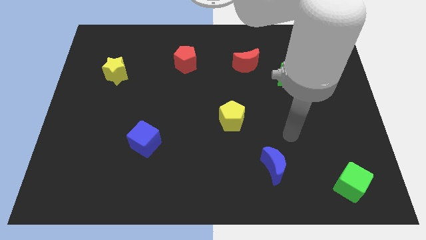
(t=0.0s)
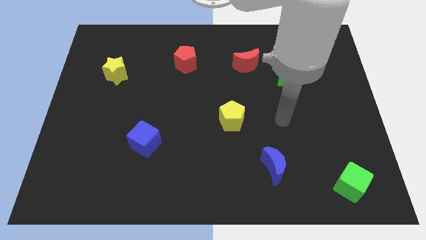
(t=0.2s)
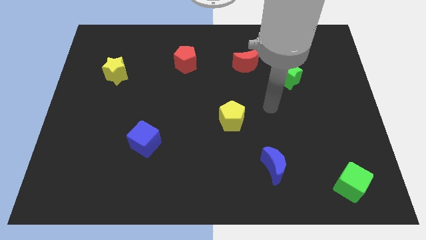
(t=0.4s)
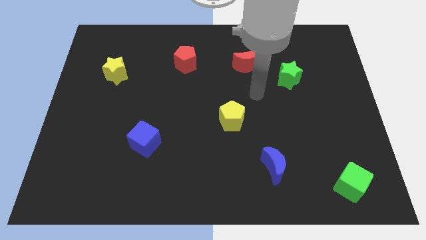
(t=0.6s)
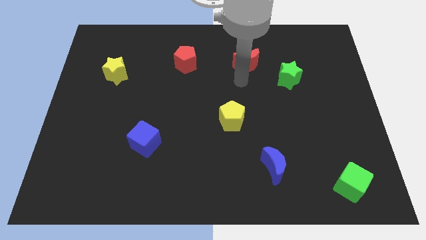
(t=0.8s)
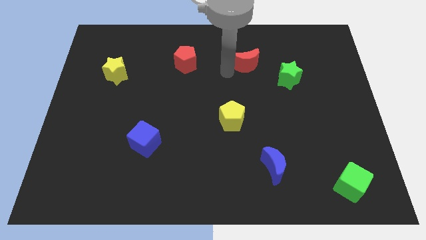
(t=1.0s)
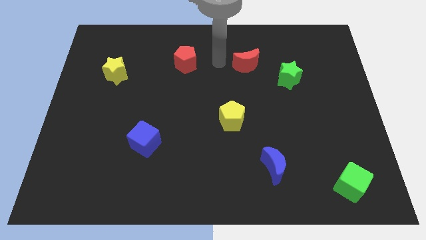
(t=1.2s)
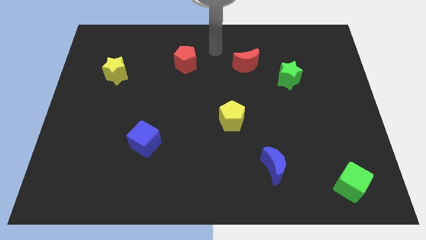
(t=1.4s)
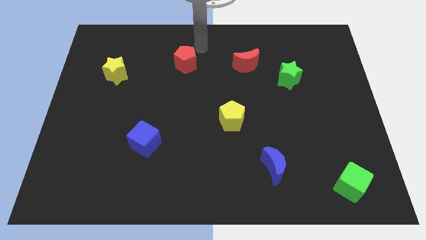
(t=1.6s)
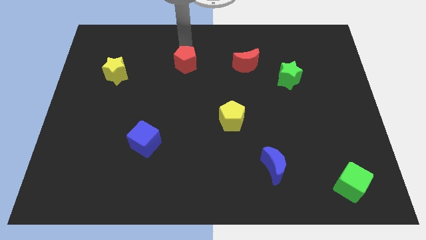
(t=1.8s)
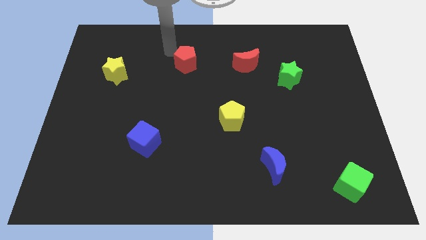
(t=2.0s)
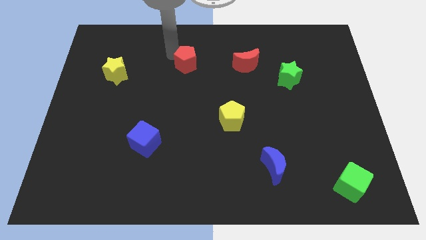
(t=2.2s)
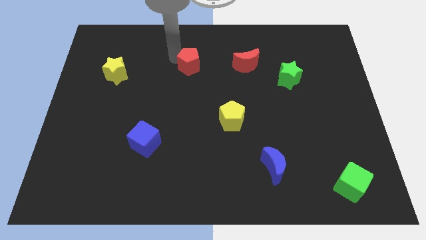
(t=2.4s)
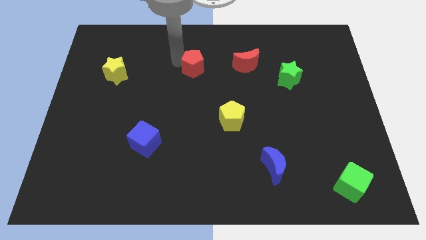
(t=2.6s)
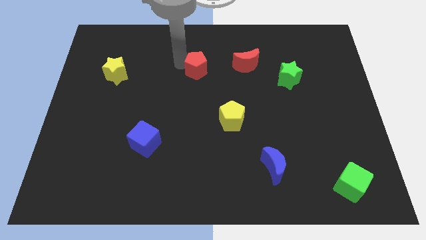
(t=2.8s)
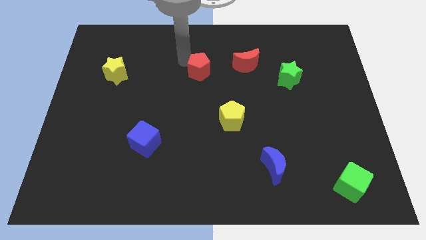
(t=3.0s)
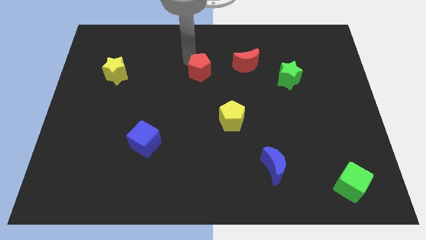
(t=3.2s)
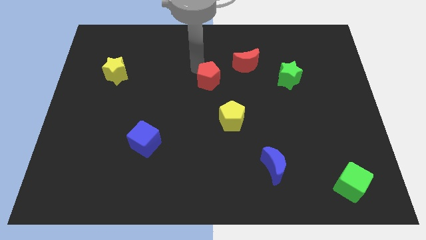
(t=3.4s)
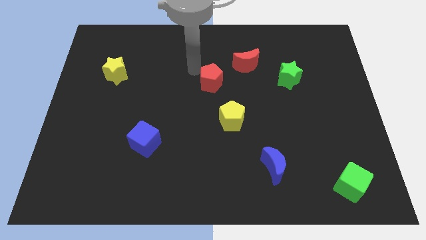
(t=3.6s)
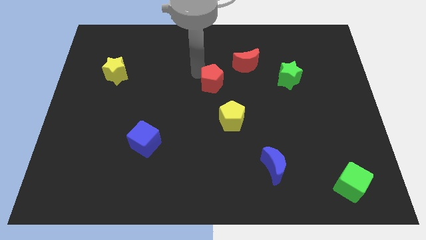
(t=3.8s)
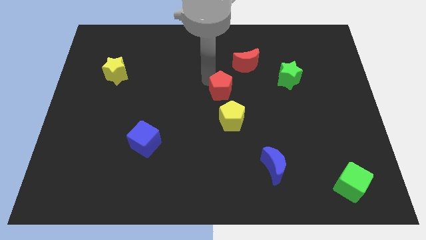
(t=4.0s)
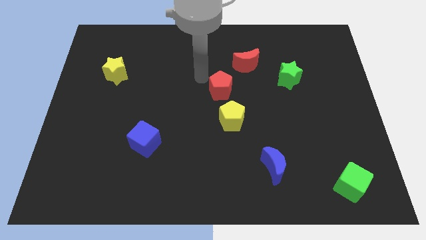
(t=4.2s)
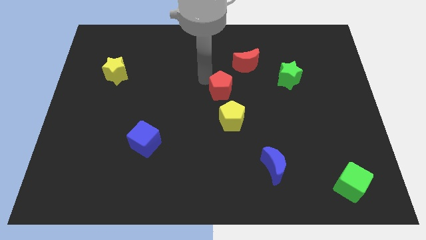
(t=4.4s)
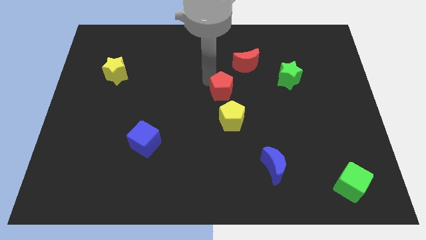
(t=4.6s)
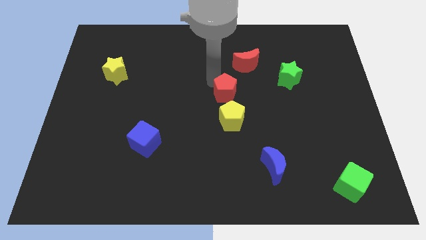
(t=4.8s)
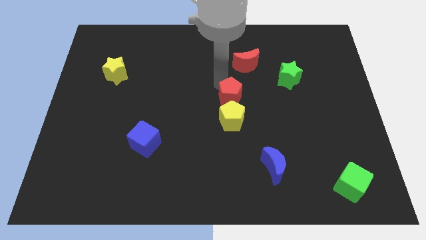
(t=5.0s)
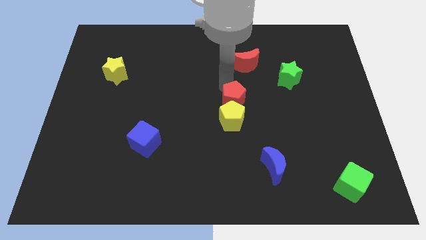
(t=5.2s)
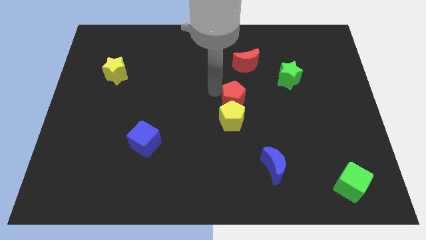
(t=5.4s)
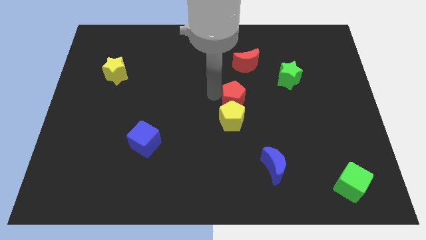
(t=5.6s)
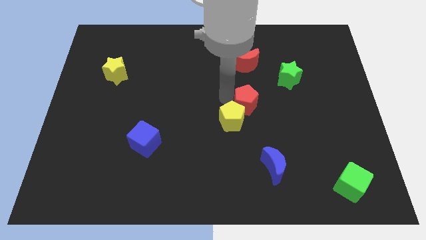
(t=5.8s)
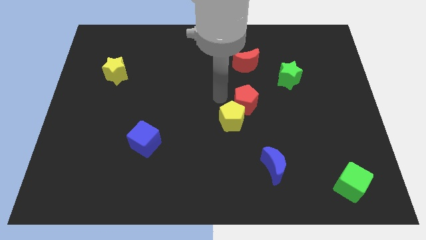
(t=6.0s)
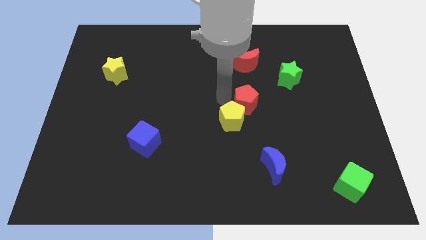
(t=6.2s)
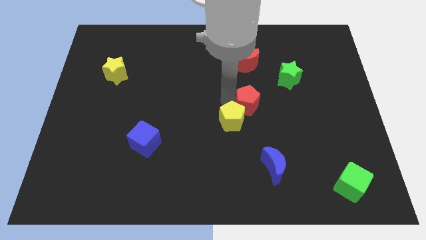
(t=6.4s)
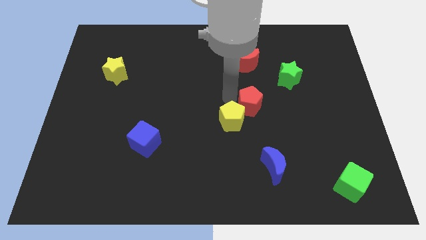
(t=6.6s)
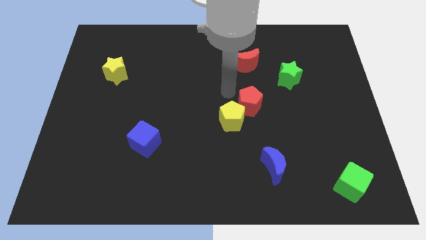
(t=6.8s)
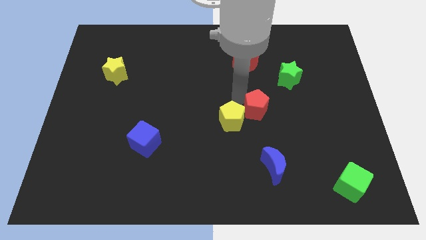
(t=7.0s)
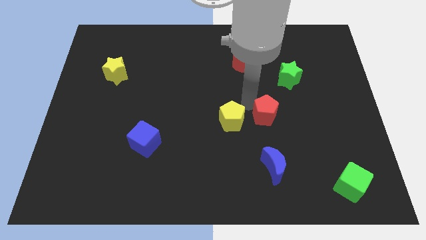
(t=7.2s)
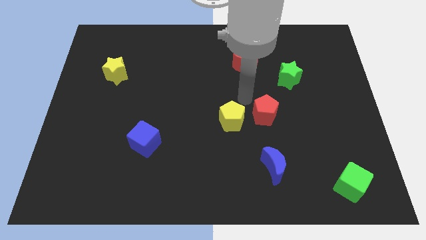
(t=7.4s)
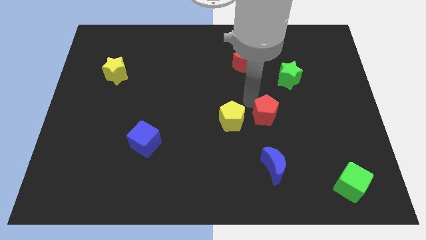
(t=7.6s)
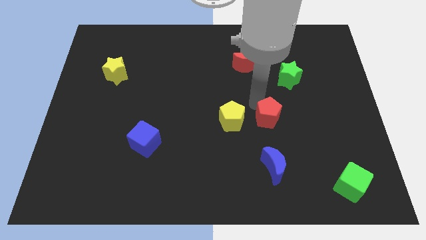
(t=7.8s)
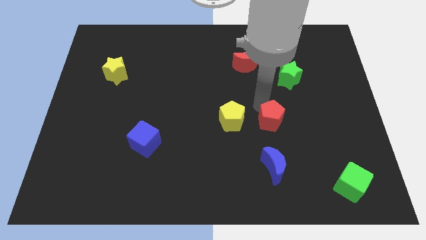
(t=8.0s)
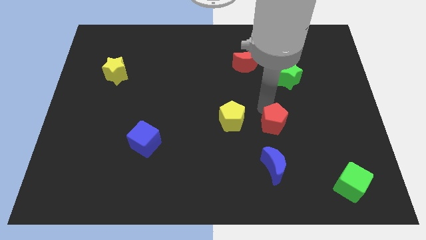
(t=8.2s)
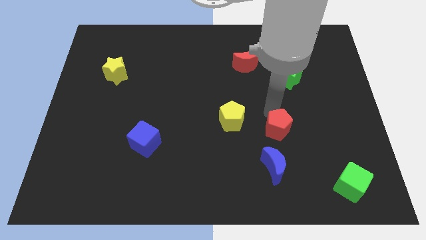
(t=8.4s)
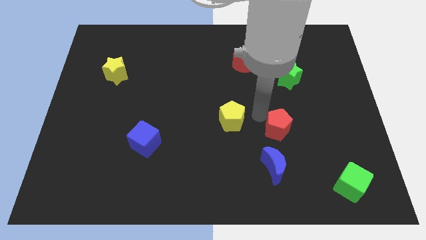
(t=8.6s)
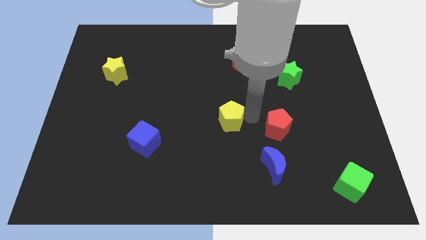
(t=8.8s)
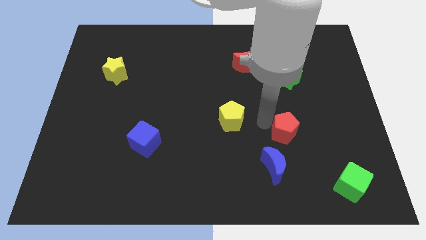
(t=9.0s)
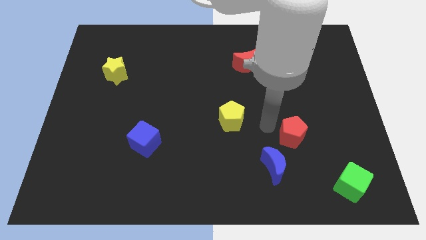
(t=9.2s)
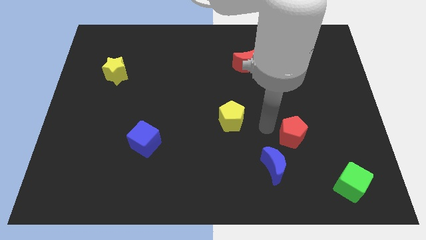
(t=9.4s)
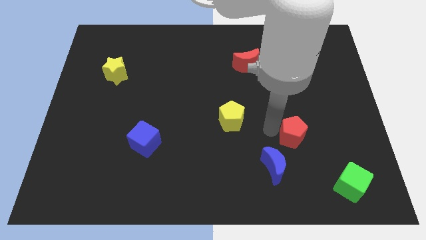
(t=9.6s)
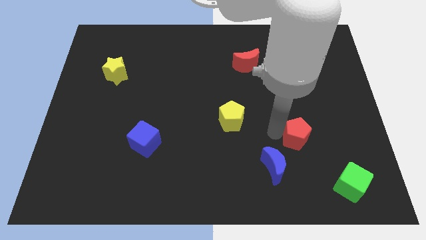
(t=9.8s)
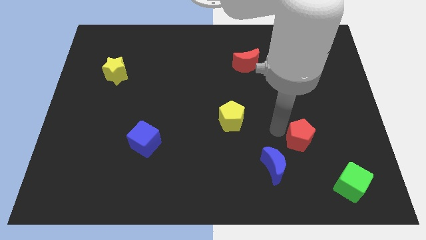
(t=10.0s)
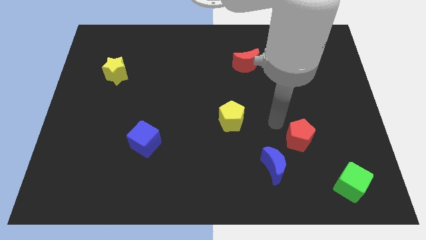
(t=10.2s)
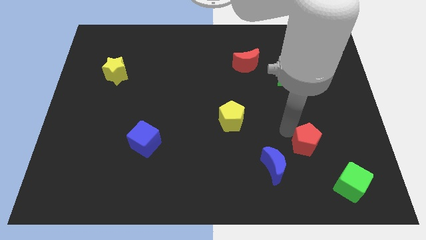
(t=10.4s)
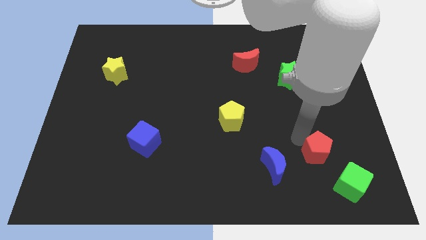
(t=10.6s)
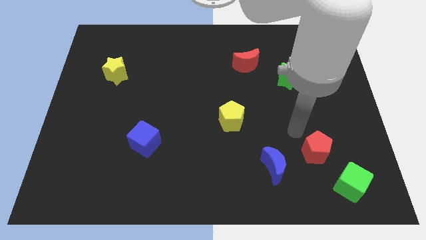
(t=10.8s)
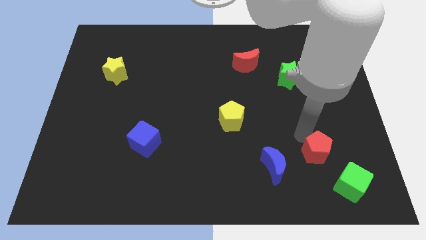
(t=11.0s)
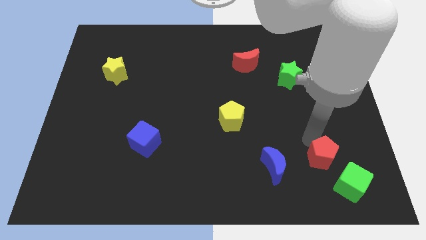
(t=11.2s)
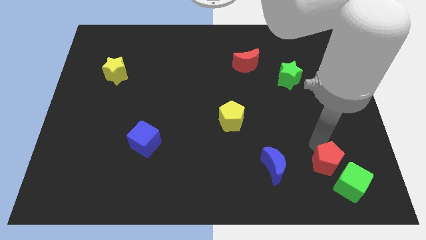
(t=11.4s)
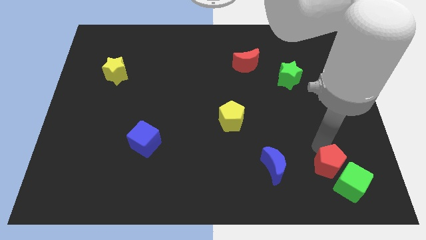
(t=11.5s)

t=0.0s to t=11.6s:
push the red pentagon next to the green cube

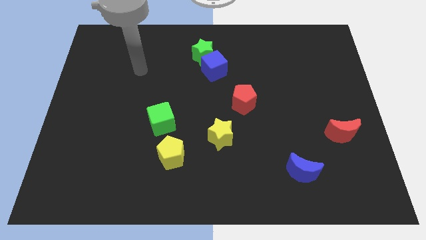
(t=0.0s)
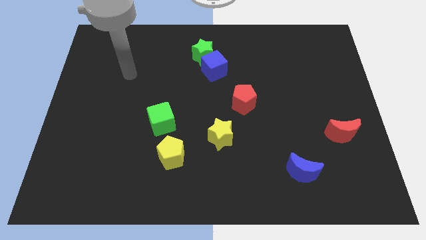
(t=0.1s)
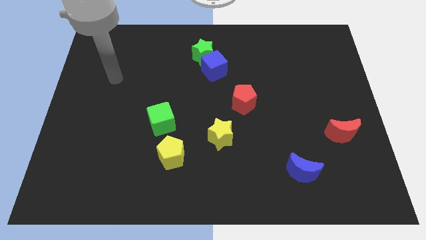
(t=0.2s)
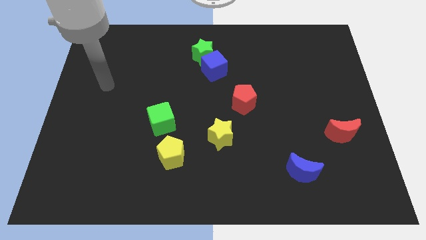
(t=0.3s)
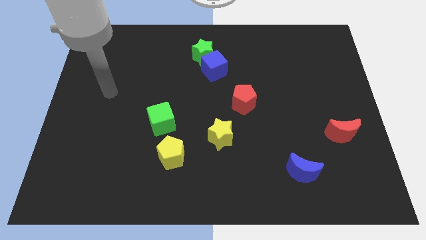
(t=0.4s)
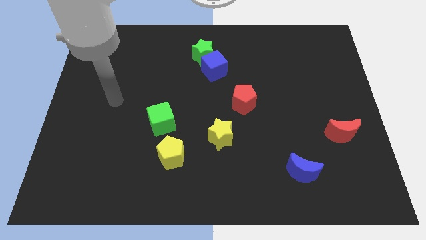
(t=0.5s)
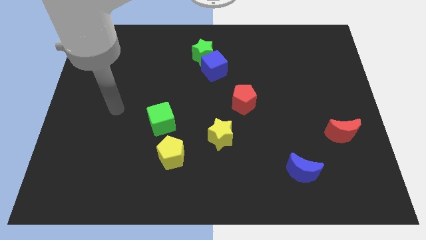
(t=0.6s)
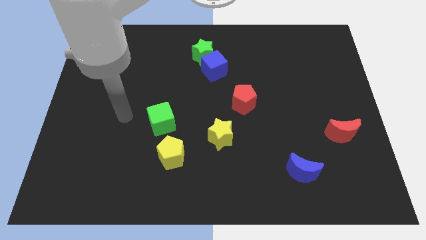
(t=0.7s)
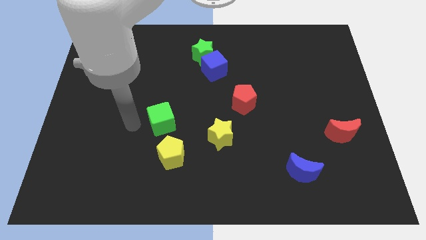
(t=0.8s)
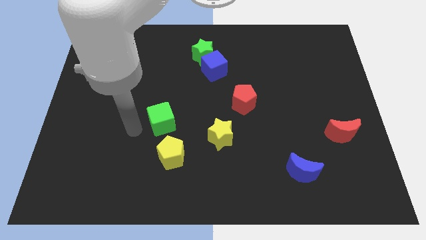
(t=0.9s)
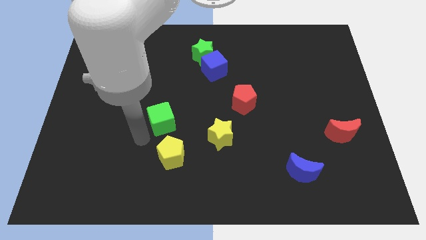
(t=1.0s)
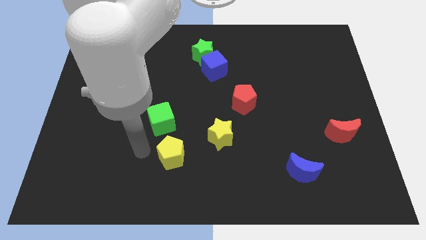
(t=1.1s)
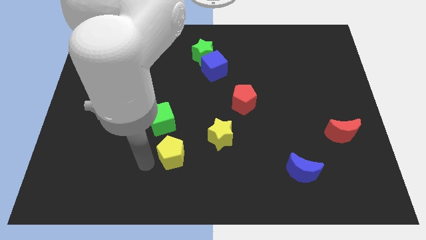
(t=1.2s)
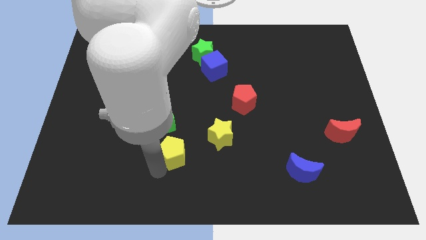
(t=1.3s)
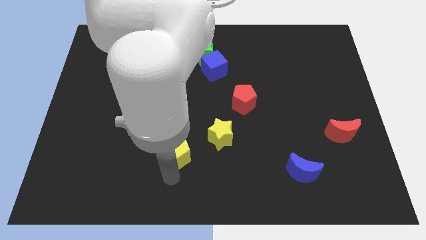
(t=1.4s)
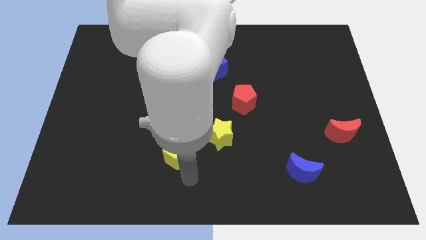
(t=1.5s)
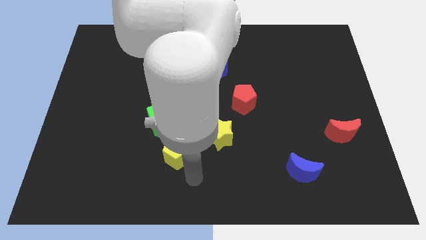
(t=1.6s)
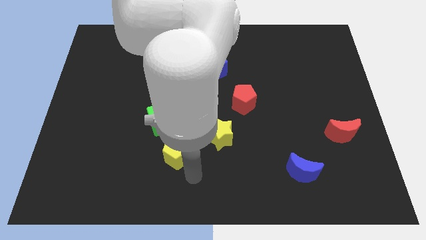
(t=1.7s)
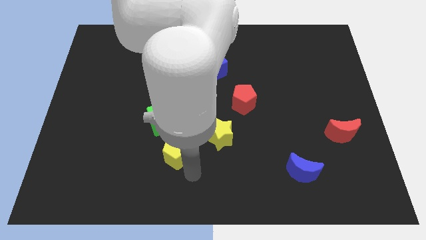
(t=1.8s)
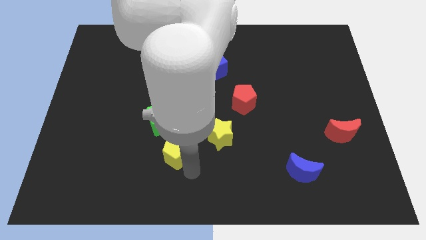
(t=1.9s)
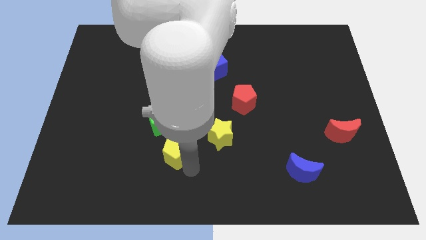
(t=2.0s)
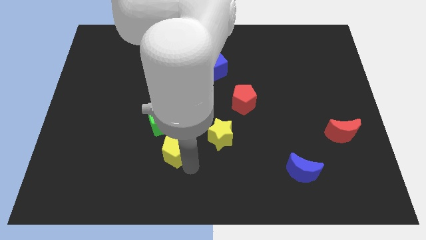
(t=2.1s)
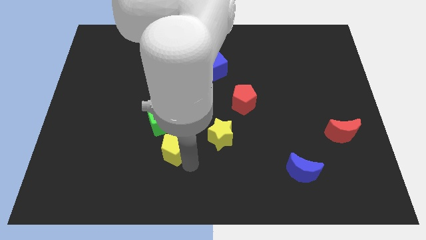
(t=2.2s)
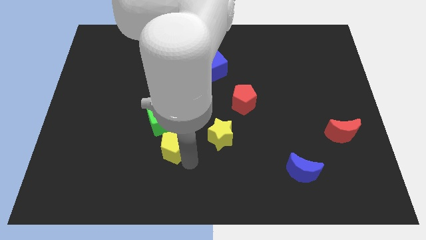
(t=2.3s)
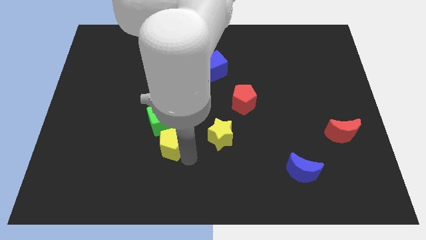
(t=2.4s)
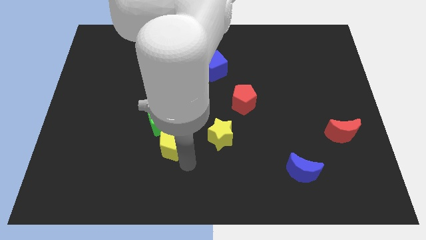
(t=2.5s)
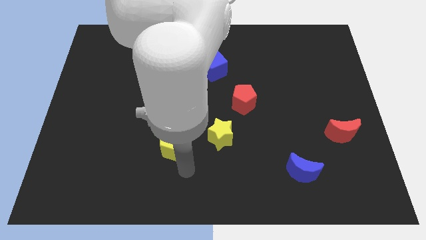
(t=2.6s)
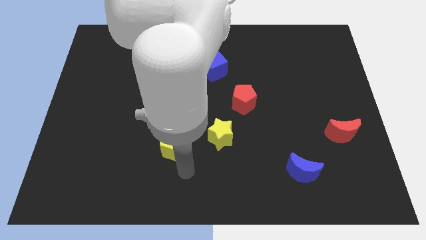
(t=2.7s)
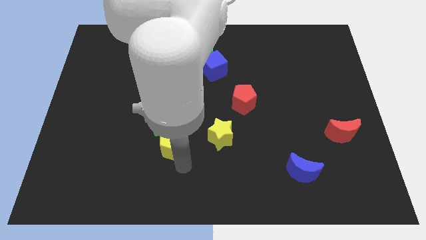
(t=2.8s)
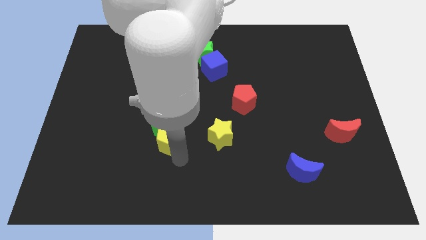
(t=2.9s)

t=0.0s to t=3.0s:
put the yellow pentagon towards the green cube
